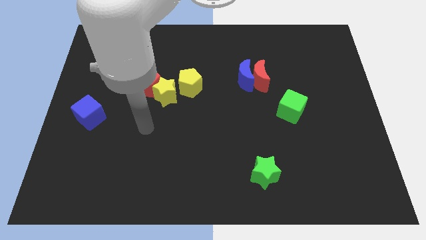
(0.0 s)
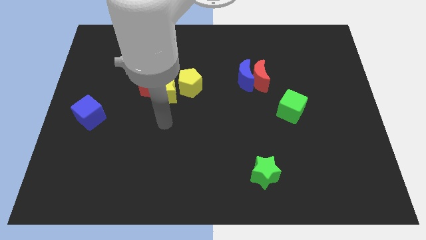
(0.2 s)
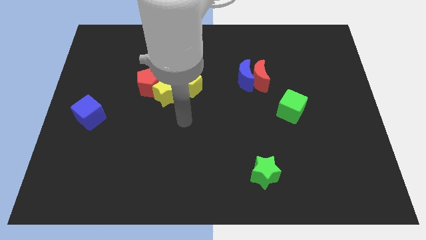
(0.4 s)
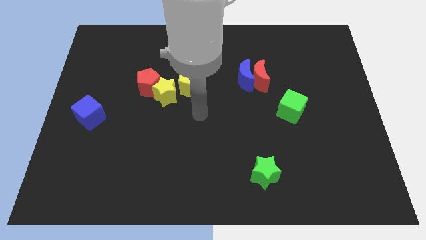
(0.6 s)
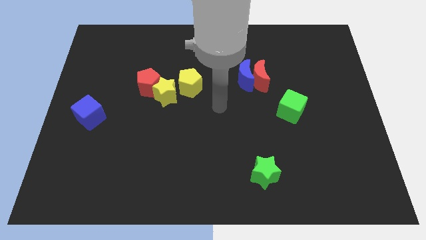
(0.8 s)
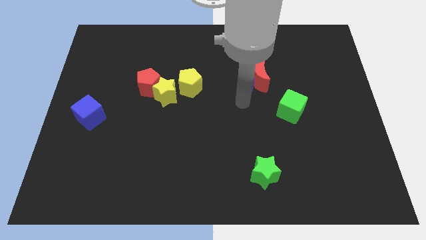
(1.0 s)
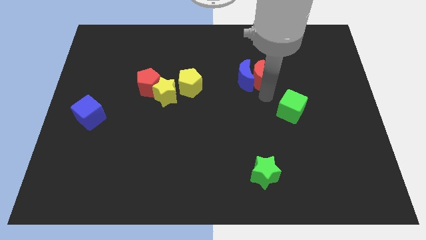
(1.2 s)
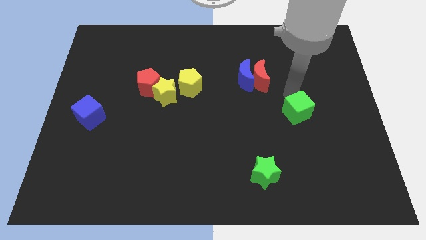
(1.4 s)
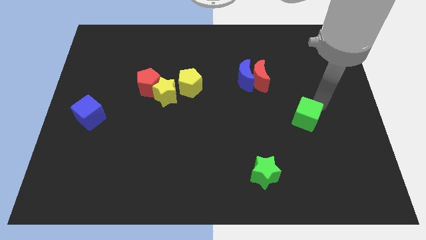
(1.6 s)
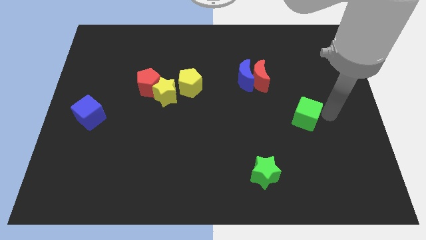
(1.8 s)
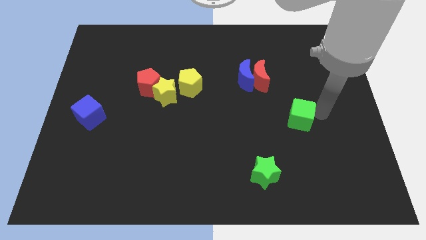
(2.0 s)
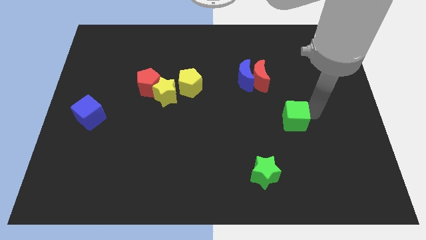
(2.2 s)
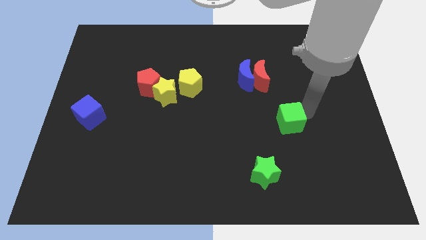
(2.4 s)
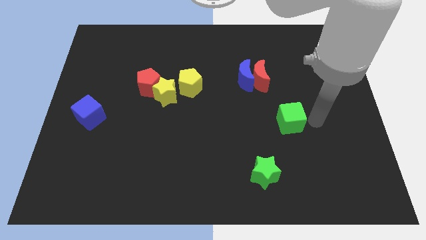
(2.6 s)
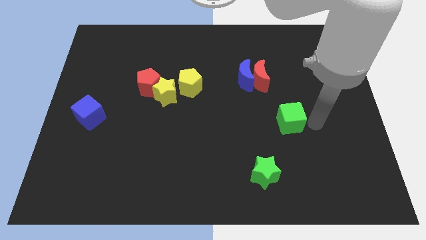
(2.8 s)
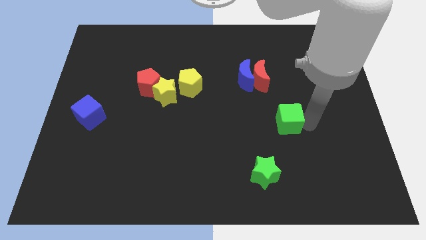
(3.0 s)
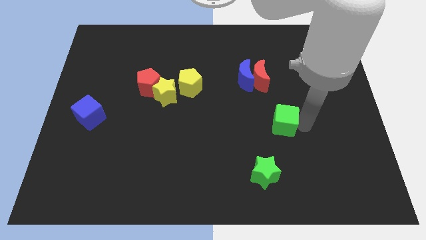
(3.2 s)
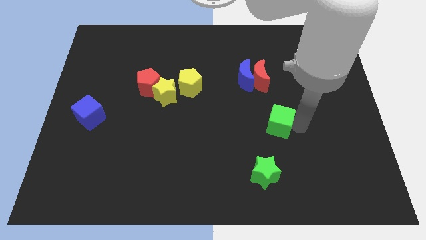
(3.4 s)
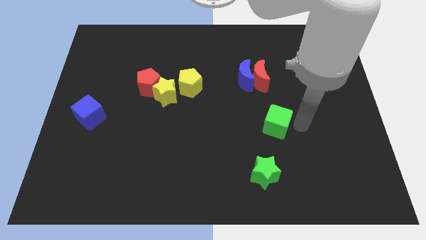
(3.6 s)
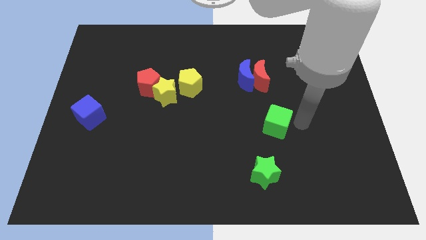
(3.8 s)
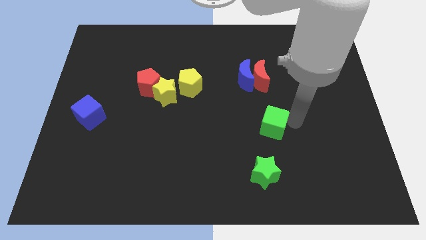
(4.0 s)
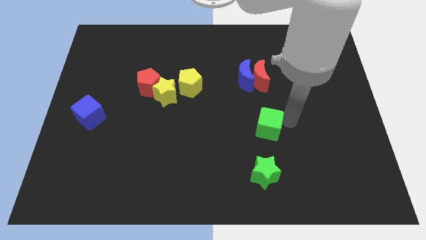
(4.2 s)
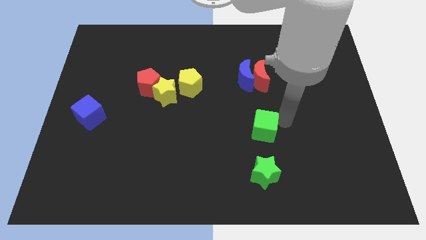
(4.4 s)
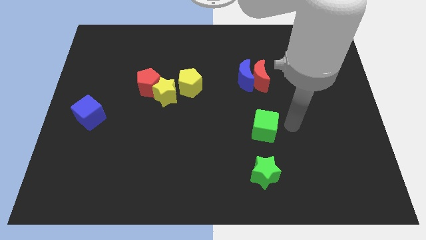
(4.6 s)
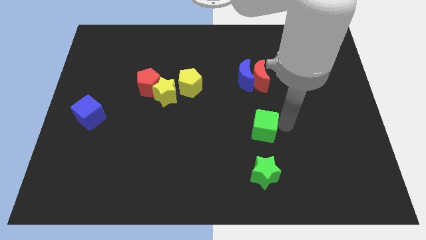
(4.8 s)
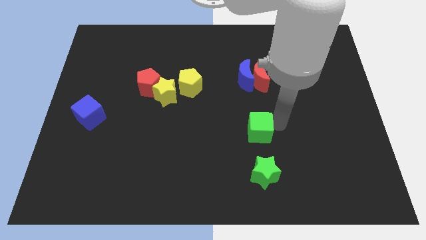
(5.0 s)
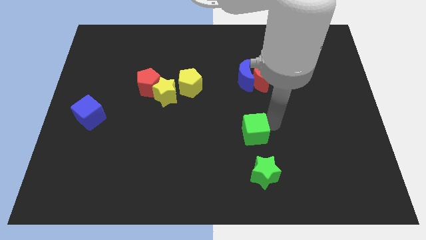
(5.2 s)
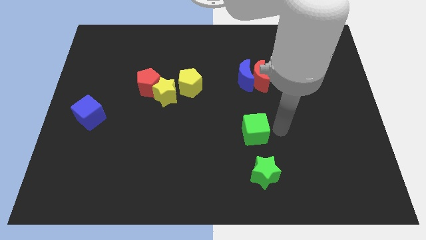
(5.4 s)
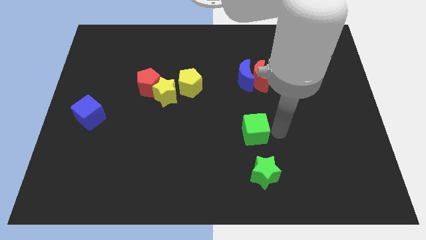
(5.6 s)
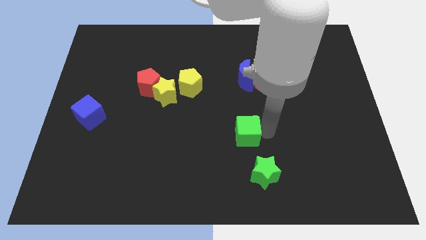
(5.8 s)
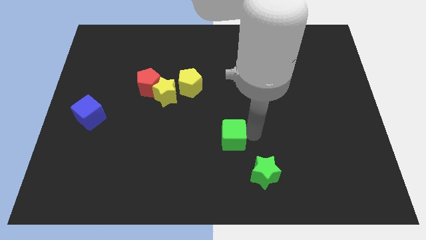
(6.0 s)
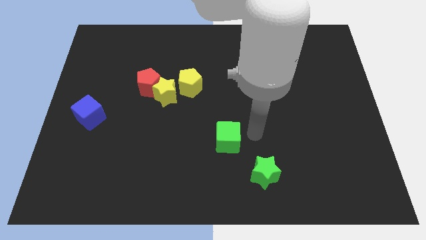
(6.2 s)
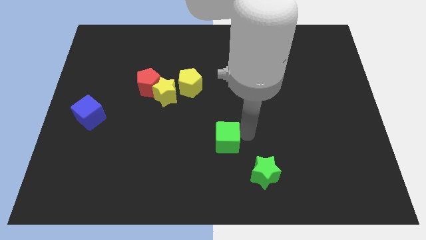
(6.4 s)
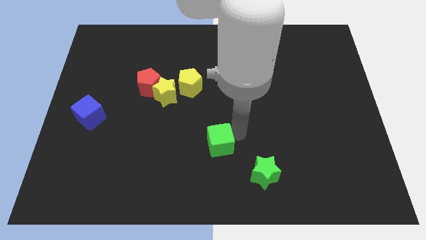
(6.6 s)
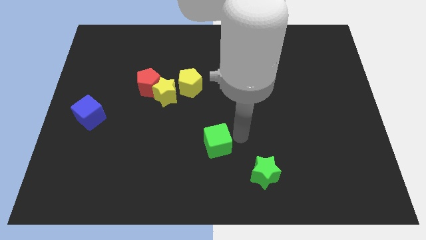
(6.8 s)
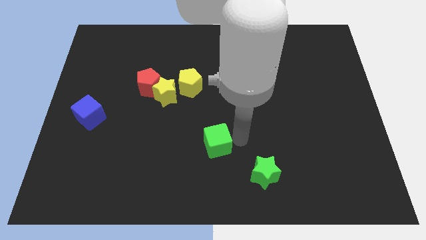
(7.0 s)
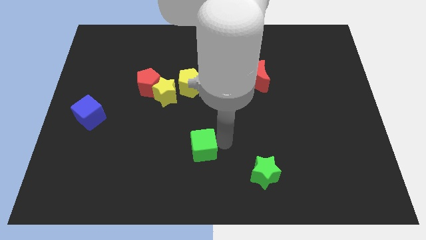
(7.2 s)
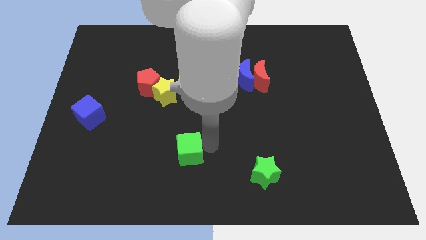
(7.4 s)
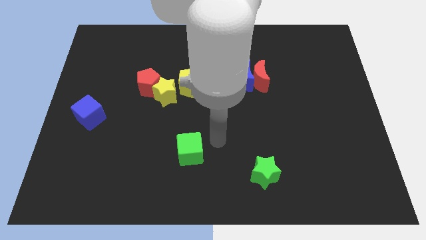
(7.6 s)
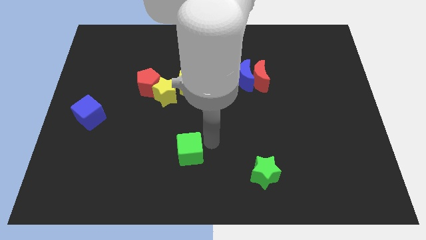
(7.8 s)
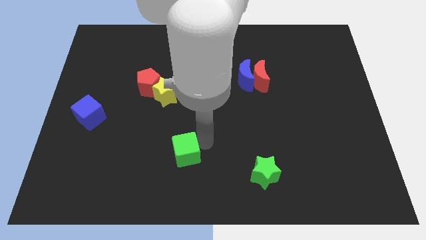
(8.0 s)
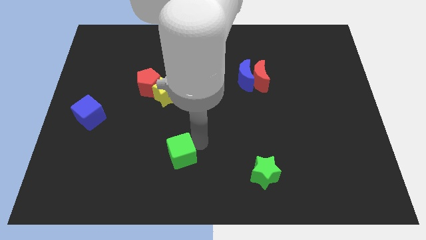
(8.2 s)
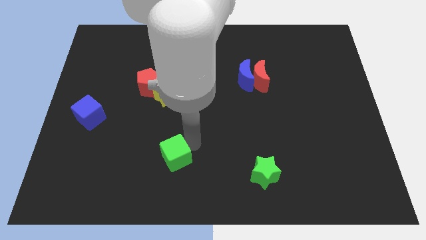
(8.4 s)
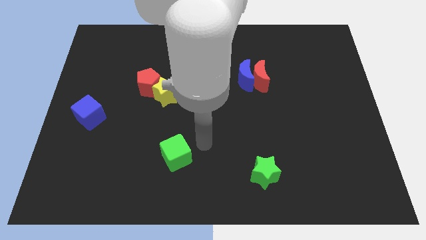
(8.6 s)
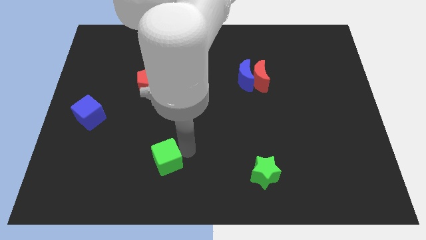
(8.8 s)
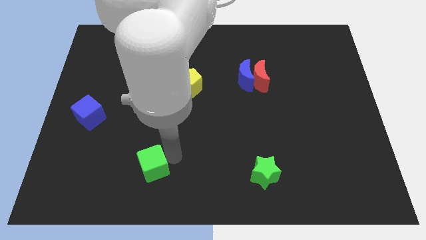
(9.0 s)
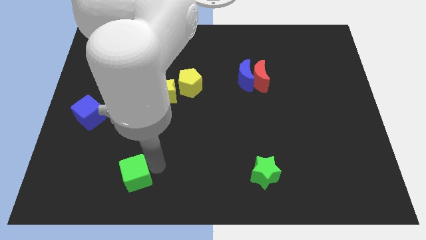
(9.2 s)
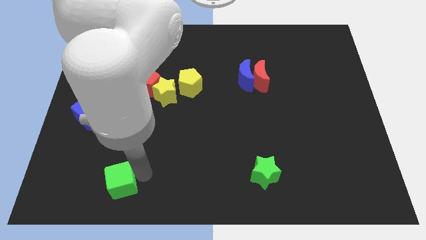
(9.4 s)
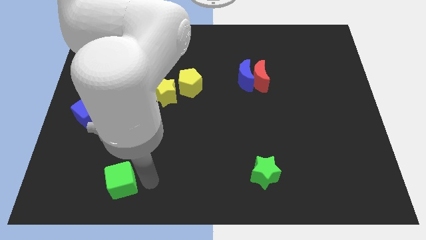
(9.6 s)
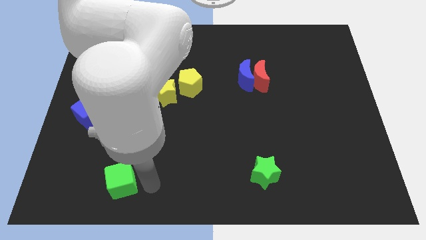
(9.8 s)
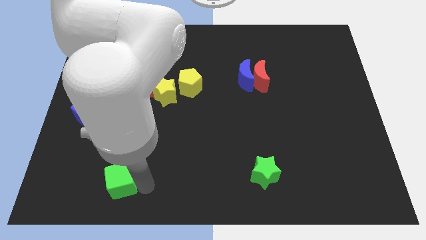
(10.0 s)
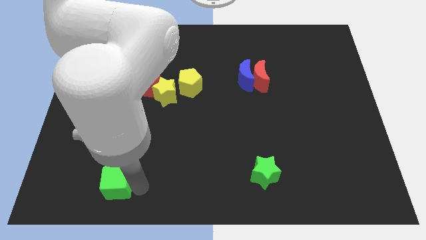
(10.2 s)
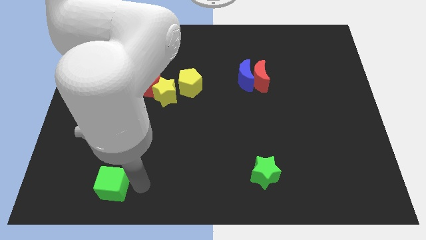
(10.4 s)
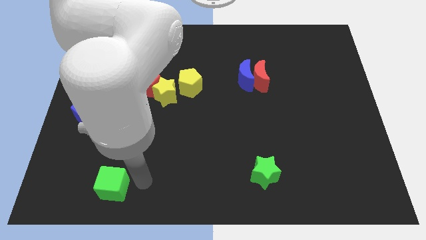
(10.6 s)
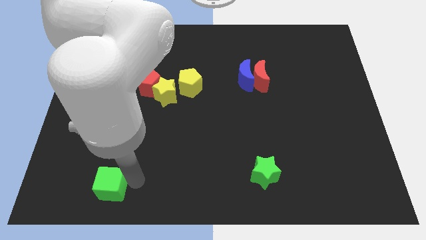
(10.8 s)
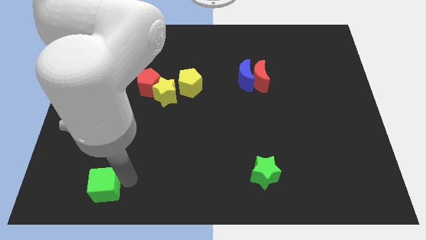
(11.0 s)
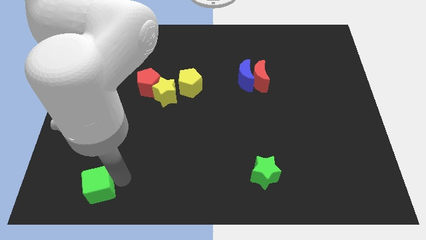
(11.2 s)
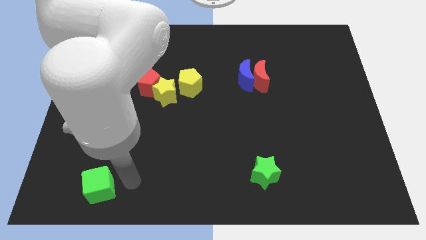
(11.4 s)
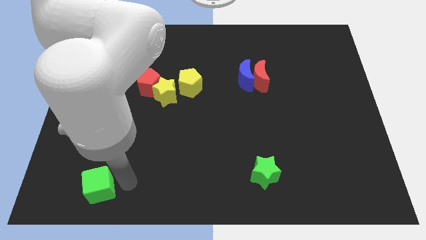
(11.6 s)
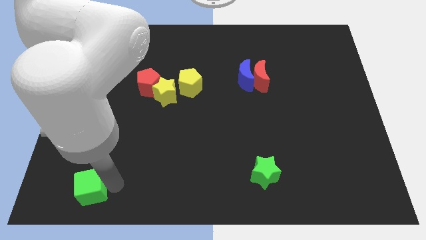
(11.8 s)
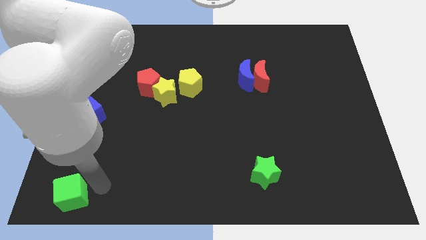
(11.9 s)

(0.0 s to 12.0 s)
slide the green cube to the lower left corner
